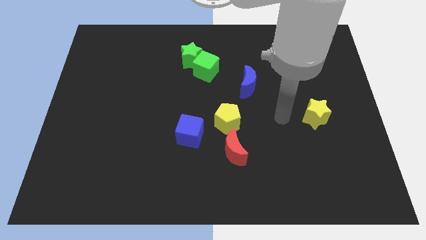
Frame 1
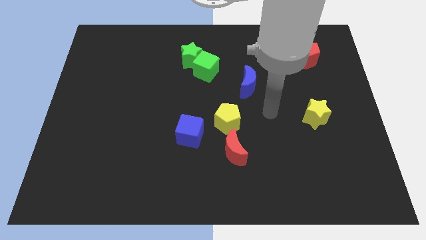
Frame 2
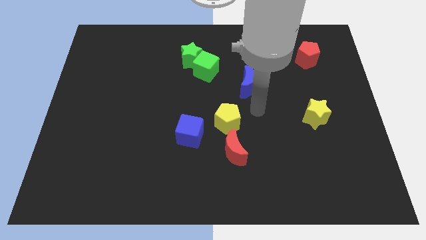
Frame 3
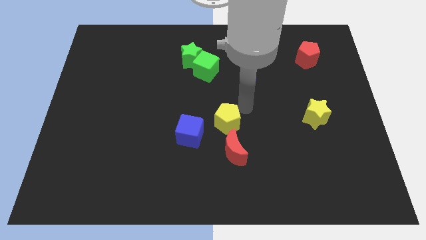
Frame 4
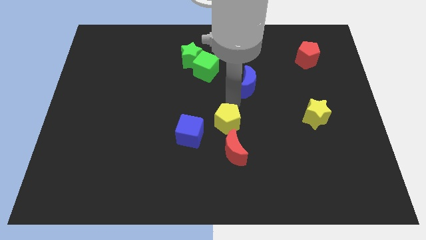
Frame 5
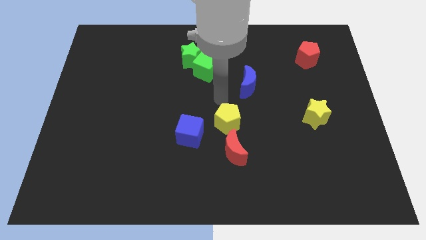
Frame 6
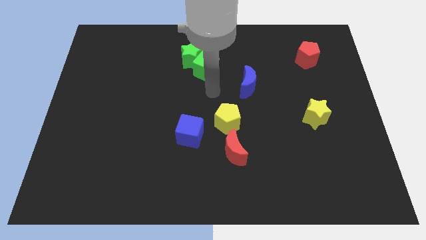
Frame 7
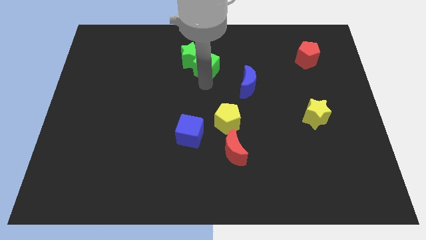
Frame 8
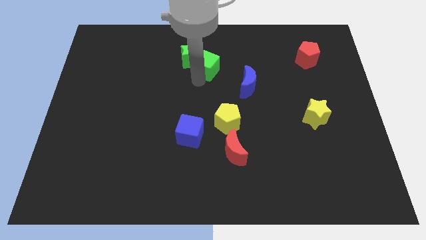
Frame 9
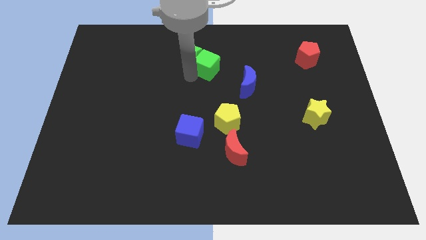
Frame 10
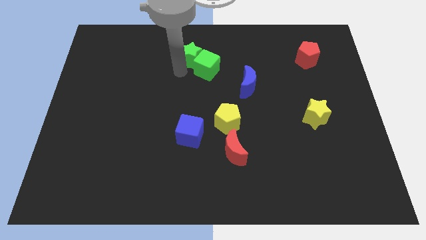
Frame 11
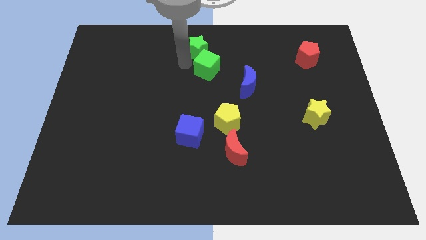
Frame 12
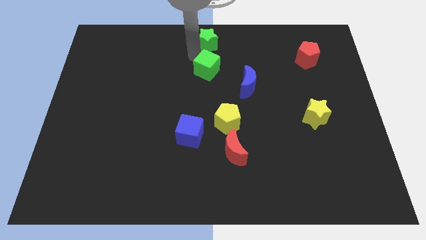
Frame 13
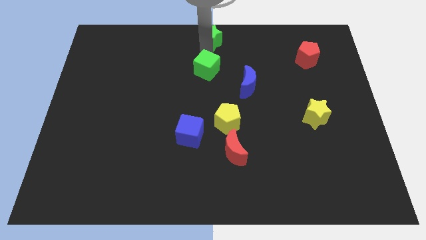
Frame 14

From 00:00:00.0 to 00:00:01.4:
separate the green cube from the green star

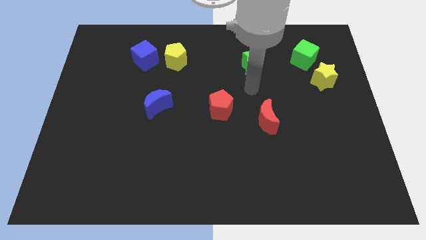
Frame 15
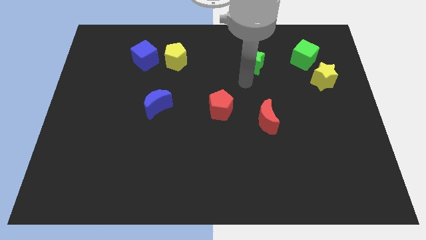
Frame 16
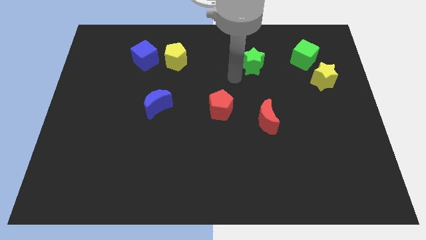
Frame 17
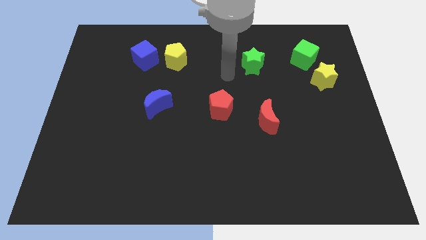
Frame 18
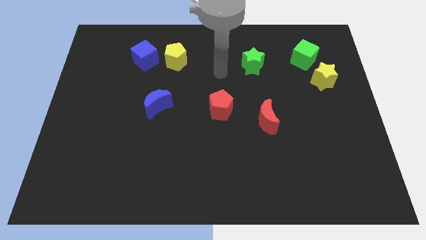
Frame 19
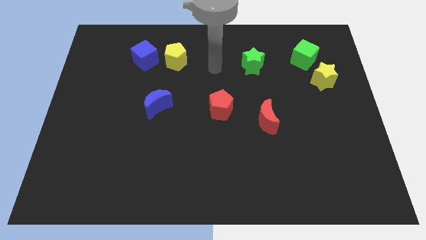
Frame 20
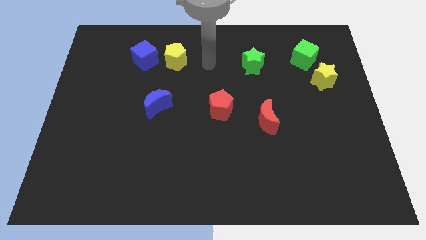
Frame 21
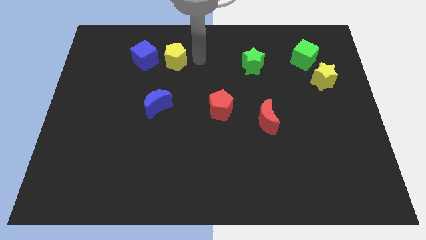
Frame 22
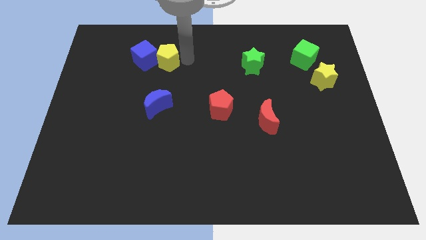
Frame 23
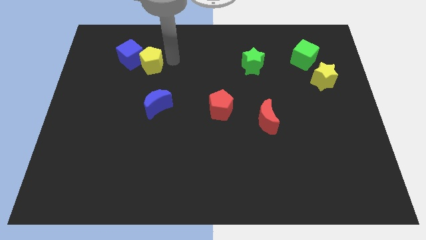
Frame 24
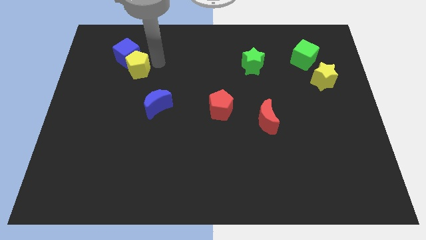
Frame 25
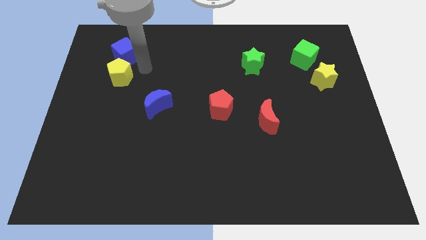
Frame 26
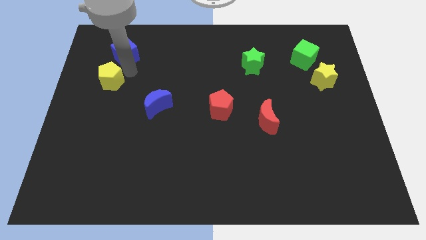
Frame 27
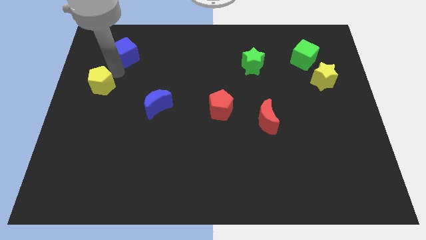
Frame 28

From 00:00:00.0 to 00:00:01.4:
separate the blue cube from the yellow pentagon

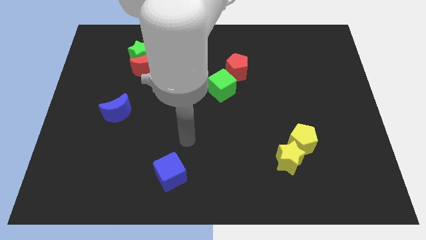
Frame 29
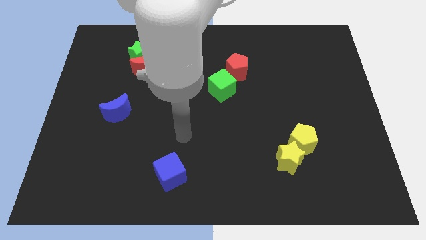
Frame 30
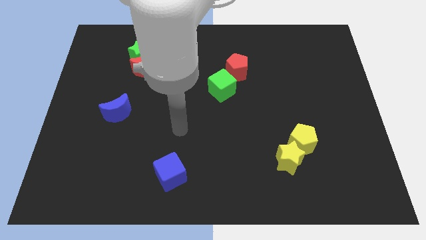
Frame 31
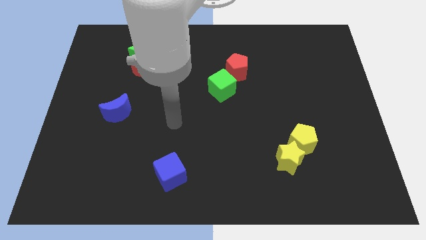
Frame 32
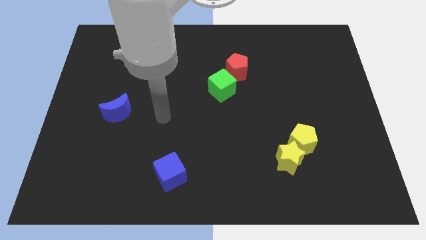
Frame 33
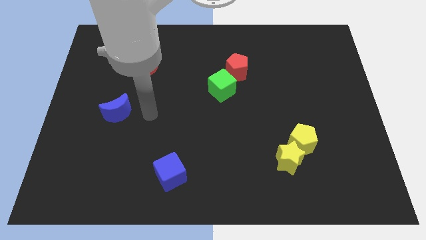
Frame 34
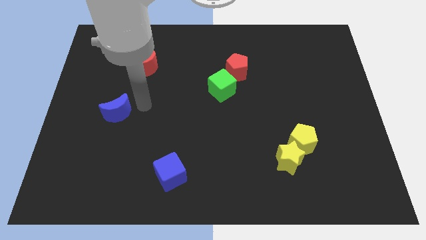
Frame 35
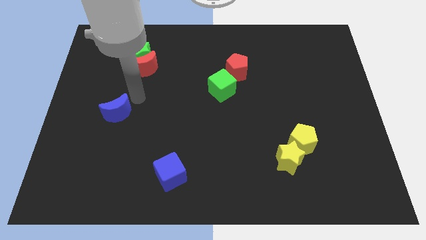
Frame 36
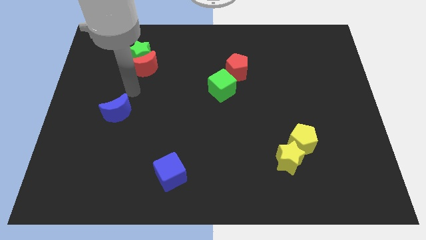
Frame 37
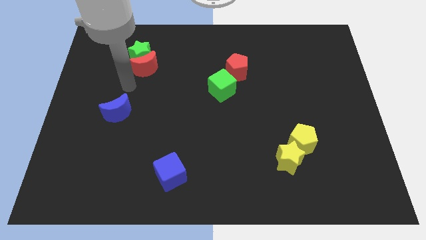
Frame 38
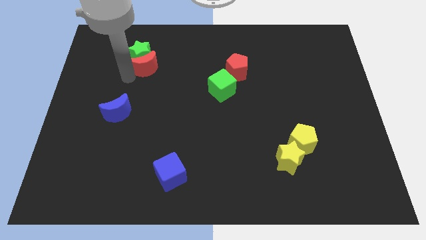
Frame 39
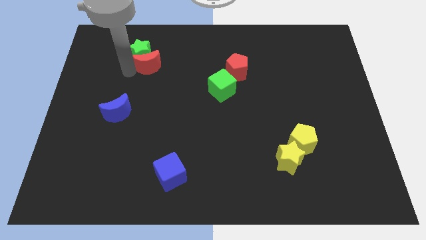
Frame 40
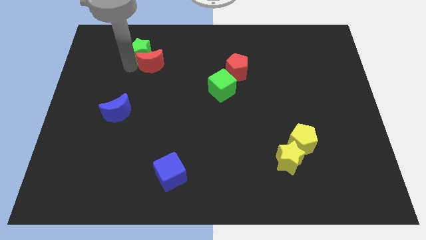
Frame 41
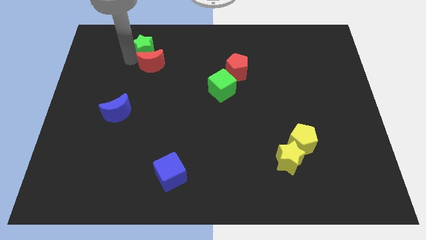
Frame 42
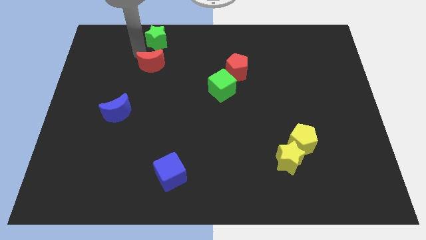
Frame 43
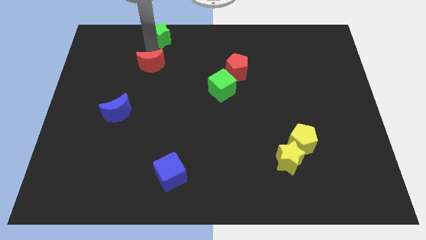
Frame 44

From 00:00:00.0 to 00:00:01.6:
move the red moon away from the green star

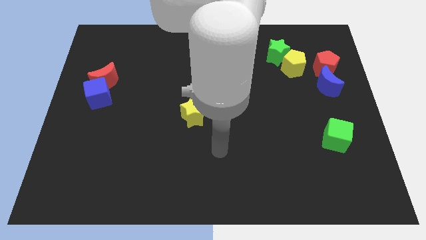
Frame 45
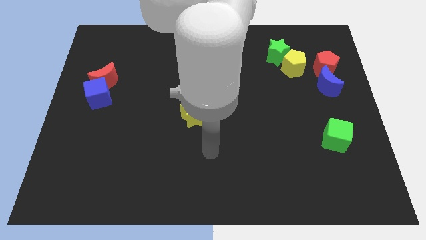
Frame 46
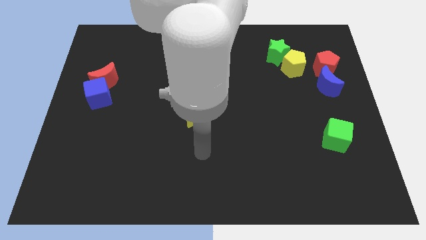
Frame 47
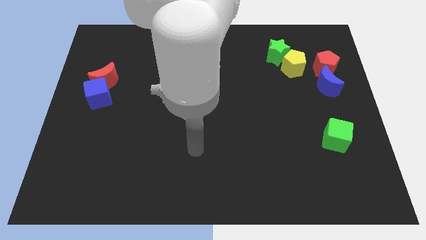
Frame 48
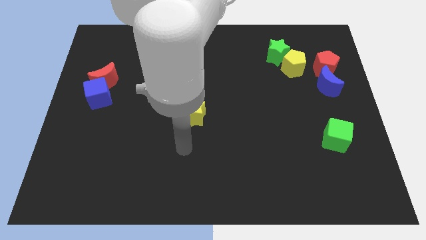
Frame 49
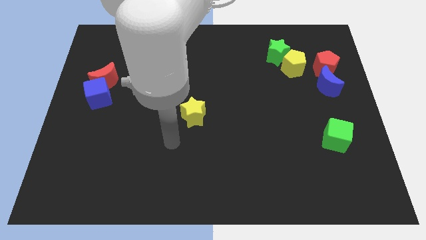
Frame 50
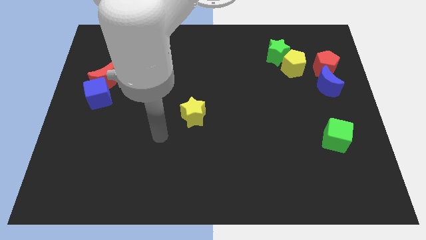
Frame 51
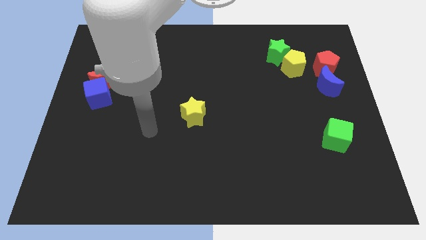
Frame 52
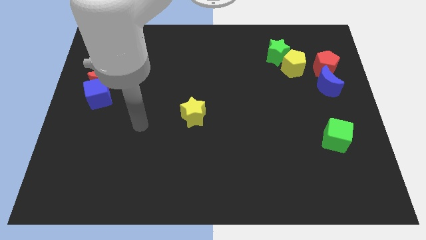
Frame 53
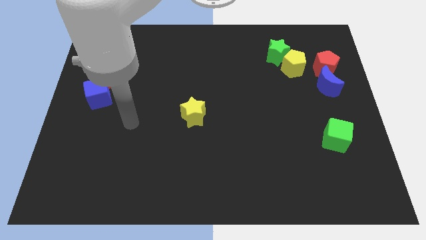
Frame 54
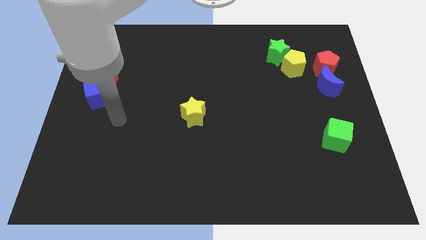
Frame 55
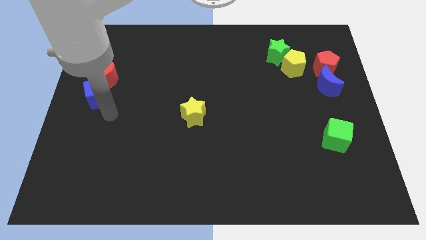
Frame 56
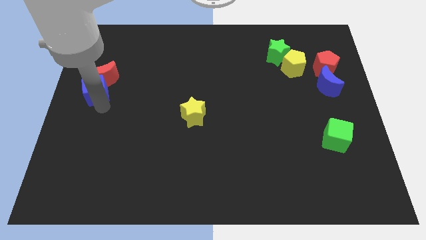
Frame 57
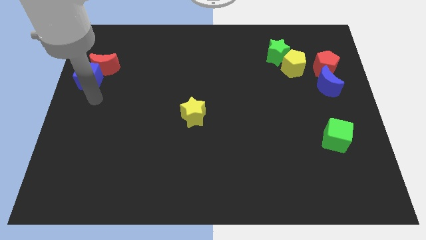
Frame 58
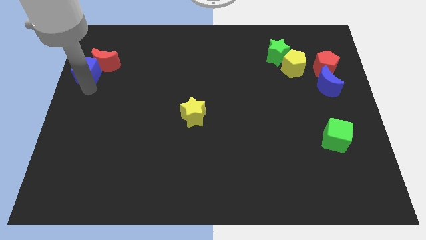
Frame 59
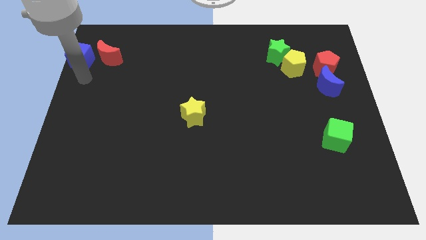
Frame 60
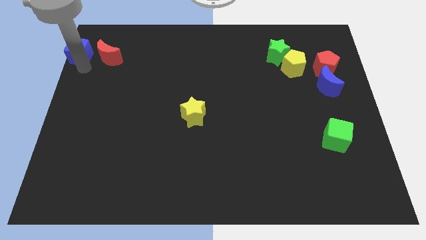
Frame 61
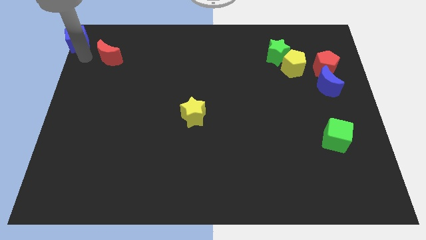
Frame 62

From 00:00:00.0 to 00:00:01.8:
separate the red moon from the blue cube

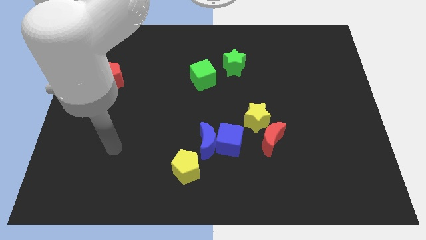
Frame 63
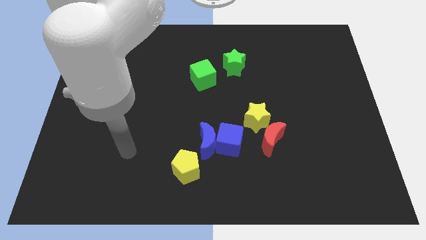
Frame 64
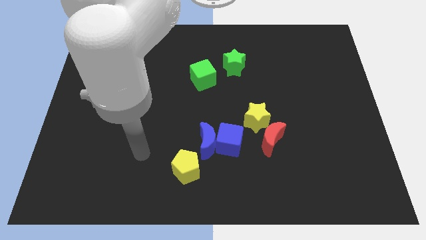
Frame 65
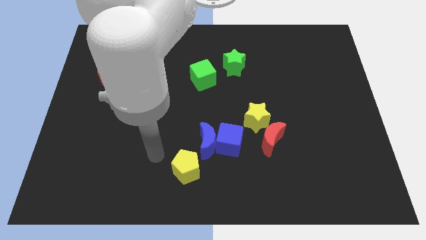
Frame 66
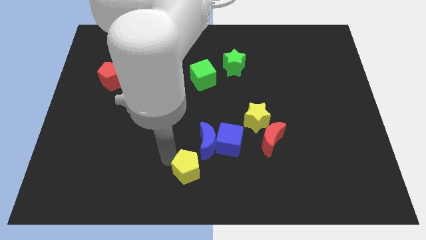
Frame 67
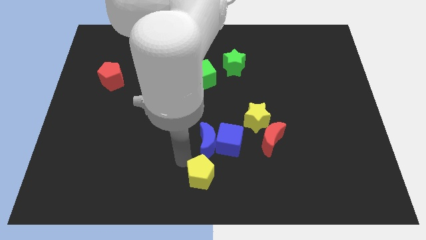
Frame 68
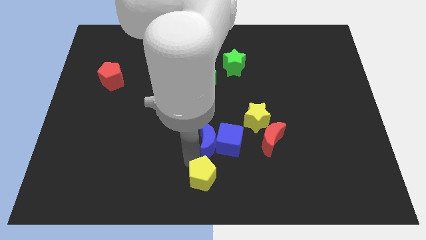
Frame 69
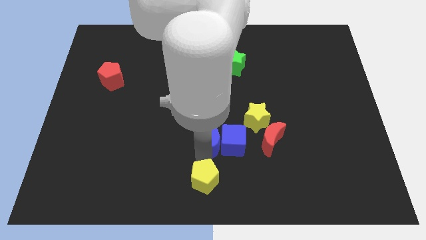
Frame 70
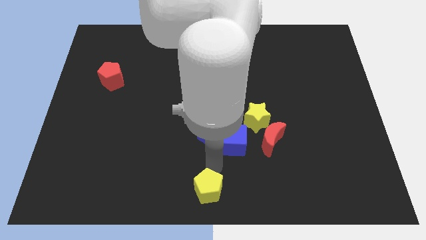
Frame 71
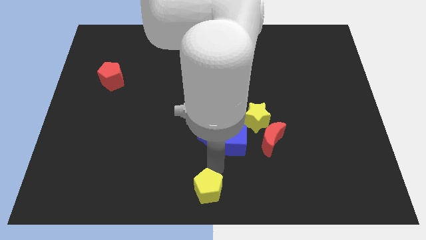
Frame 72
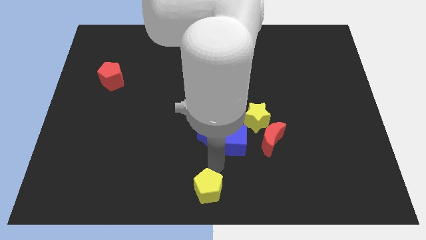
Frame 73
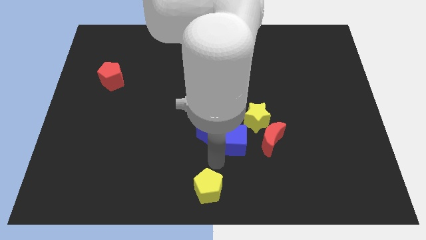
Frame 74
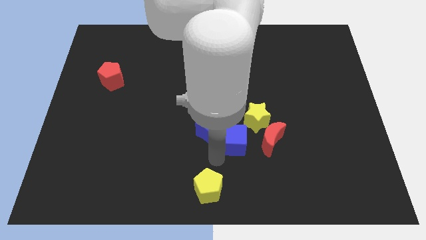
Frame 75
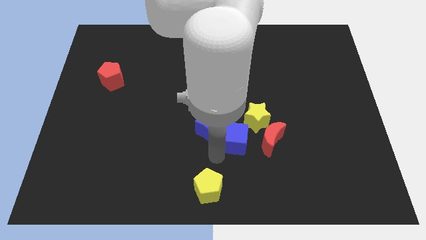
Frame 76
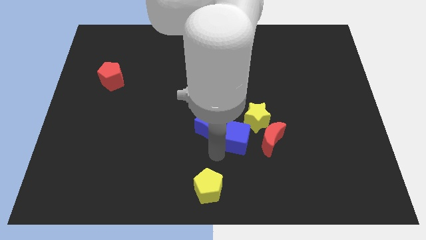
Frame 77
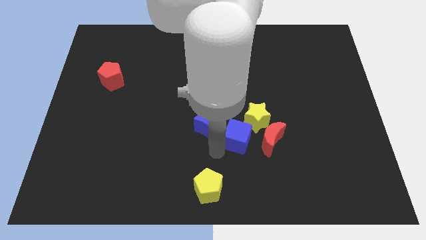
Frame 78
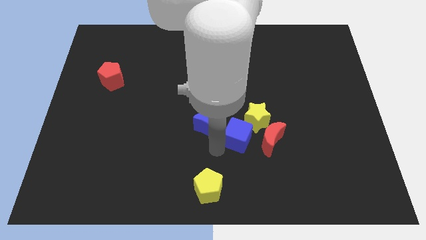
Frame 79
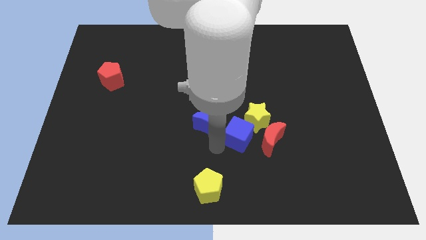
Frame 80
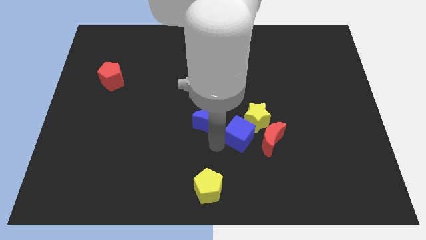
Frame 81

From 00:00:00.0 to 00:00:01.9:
pull the blue moon apart from the blue cube and yellow pentagon

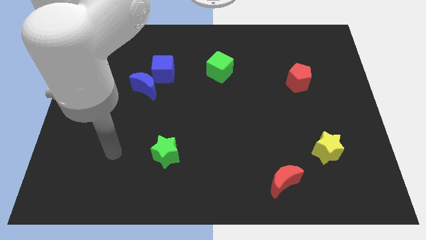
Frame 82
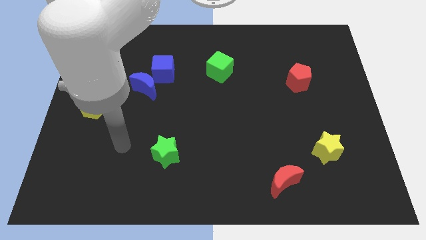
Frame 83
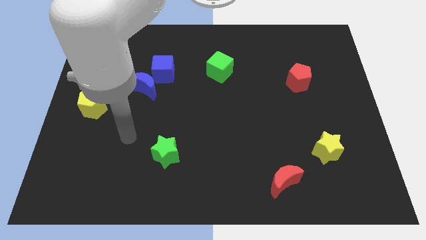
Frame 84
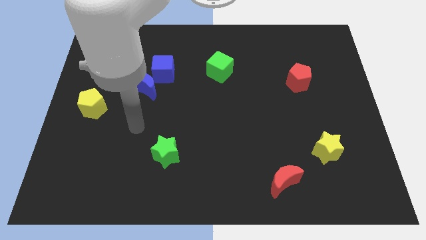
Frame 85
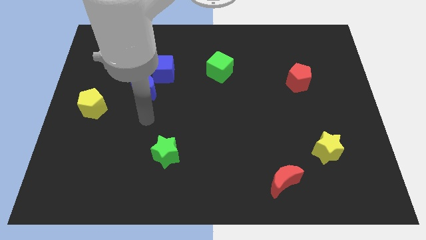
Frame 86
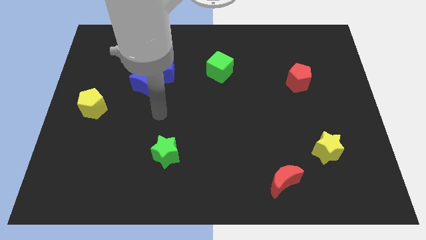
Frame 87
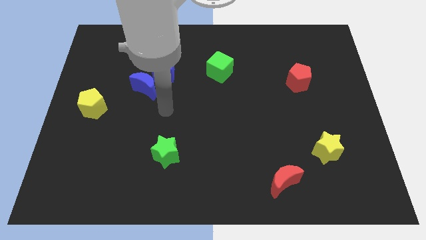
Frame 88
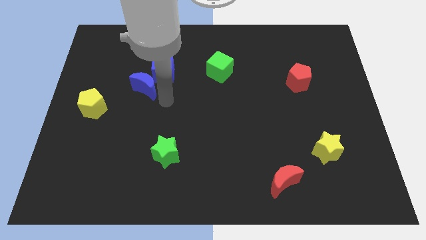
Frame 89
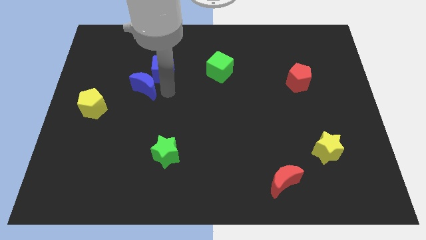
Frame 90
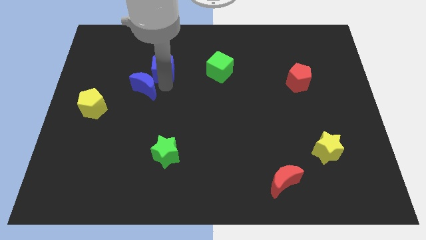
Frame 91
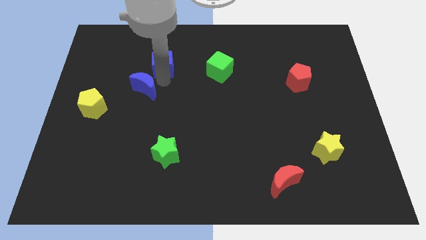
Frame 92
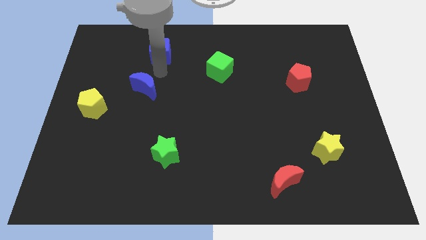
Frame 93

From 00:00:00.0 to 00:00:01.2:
separate the blue moon from the blue cube
